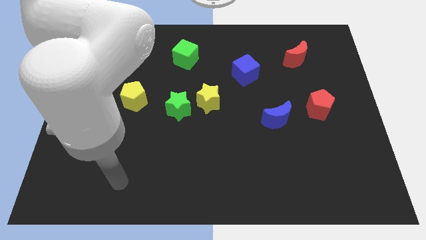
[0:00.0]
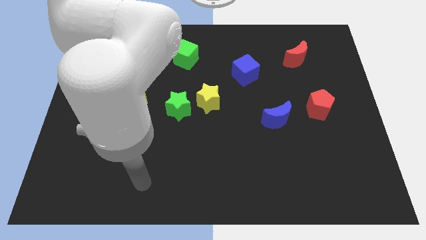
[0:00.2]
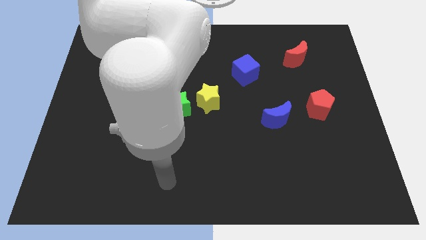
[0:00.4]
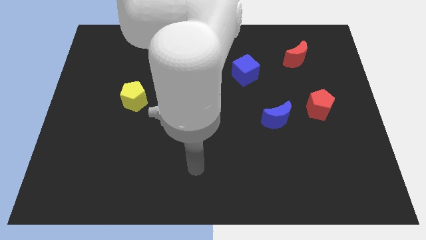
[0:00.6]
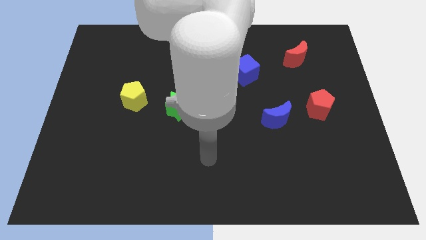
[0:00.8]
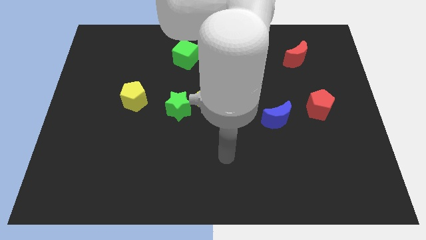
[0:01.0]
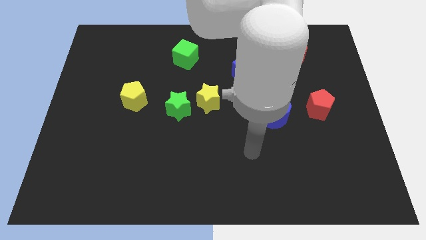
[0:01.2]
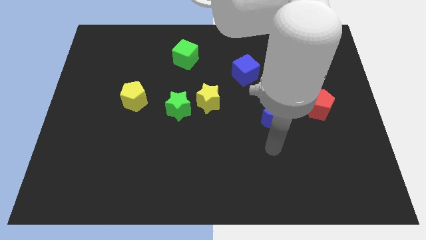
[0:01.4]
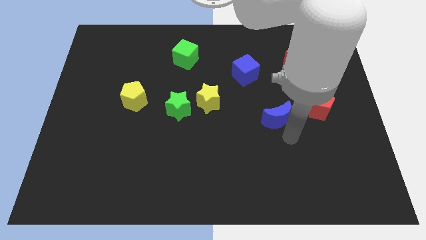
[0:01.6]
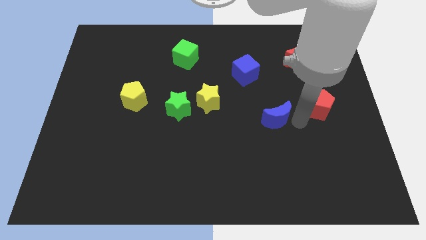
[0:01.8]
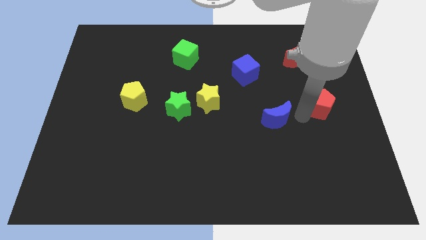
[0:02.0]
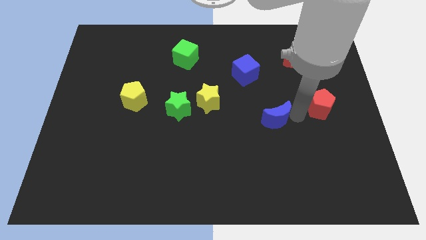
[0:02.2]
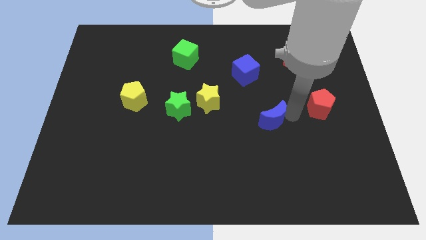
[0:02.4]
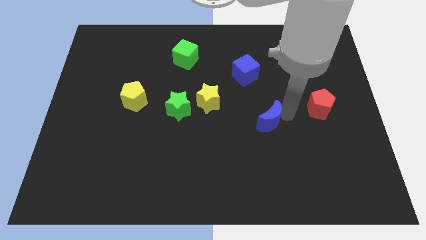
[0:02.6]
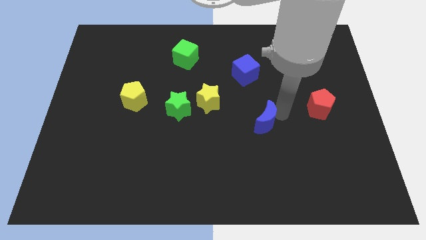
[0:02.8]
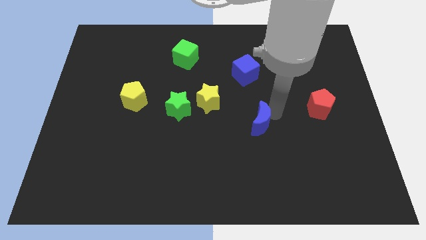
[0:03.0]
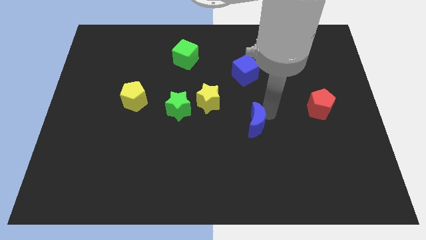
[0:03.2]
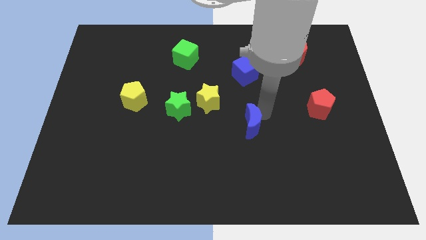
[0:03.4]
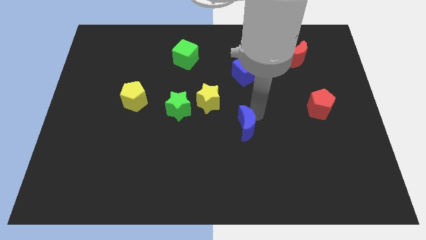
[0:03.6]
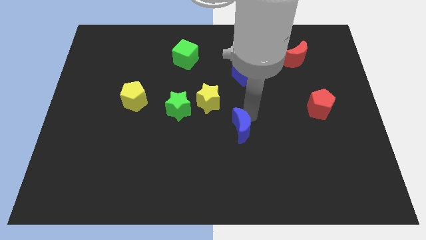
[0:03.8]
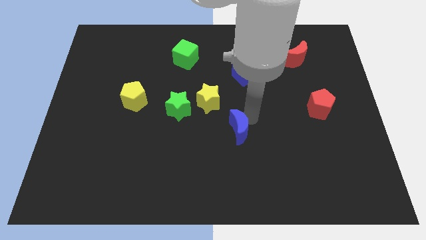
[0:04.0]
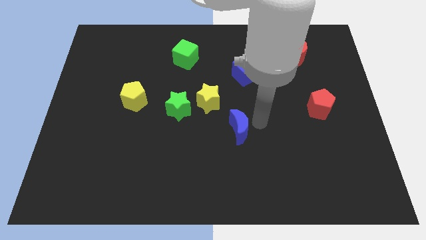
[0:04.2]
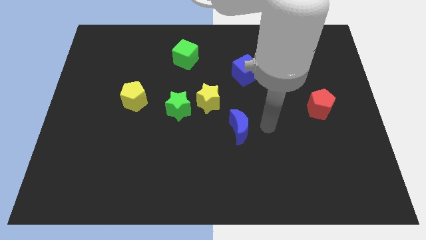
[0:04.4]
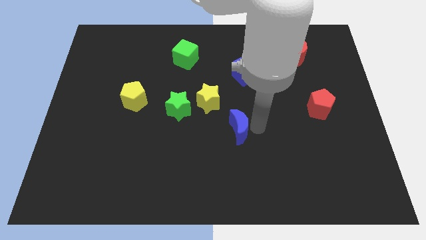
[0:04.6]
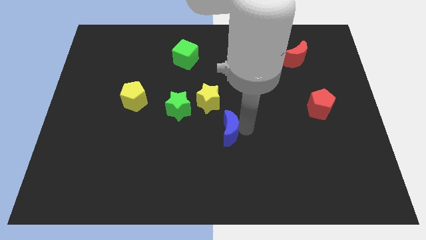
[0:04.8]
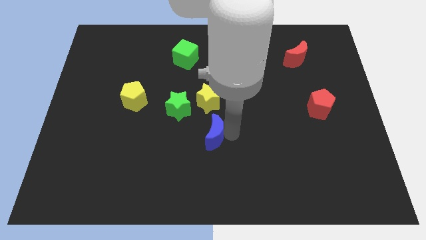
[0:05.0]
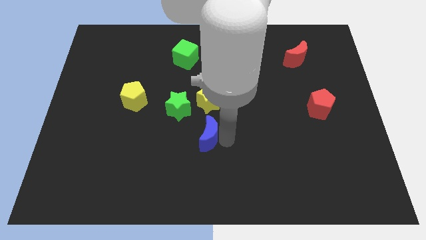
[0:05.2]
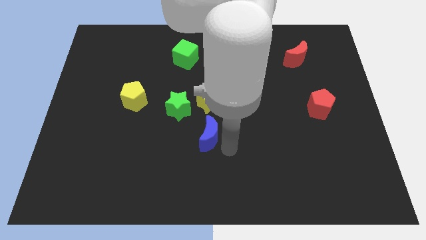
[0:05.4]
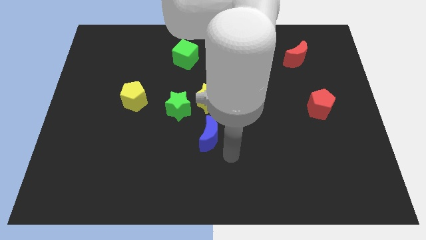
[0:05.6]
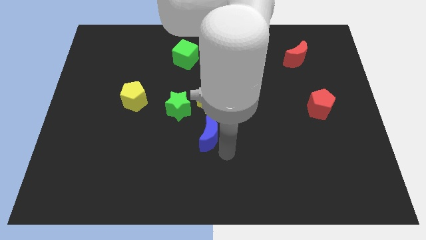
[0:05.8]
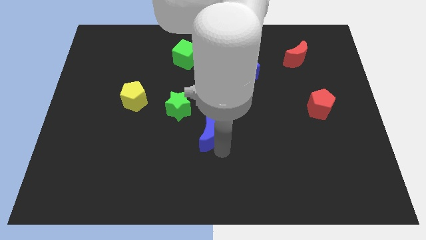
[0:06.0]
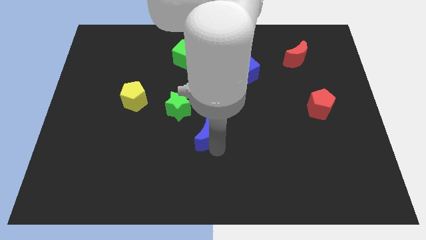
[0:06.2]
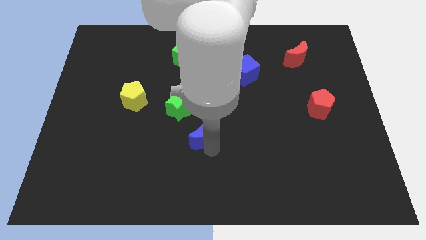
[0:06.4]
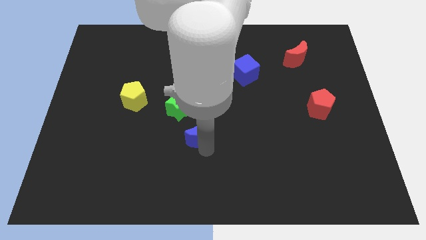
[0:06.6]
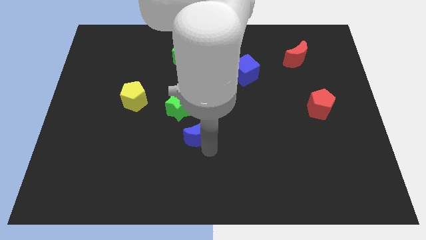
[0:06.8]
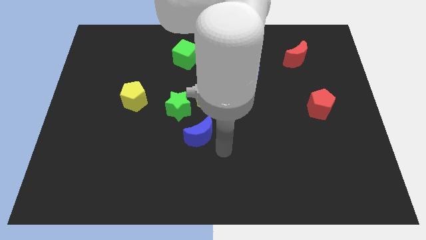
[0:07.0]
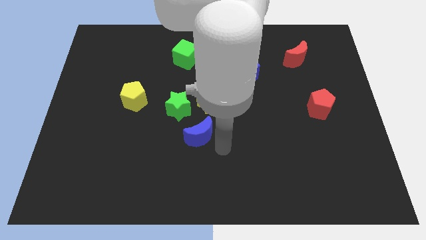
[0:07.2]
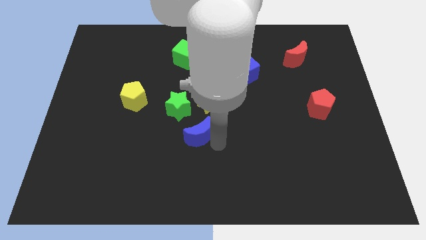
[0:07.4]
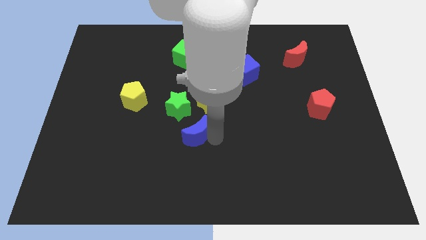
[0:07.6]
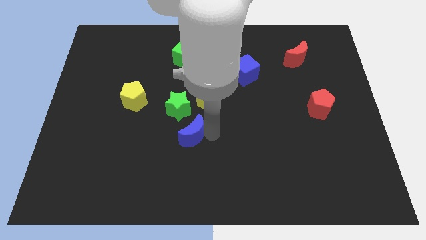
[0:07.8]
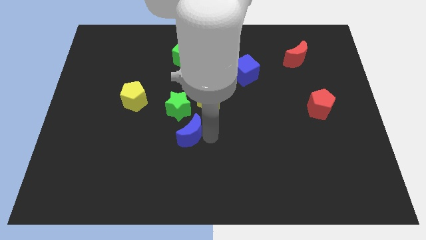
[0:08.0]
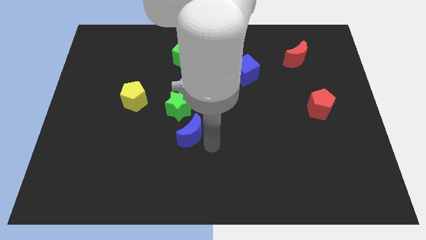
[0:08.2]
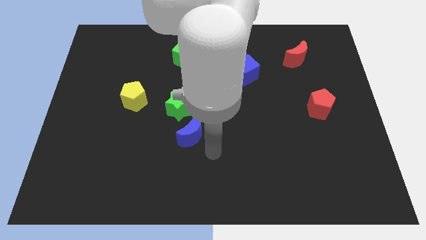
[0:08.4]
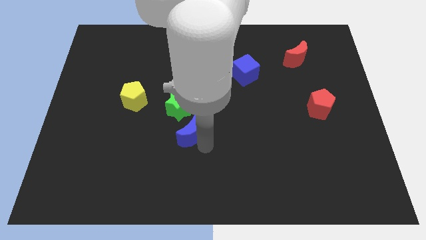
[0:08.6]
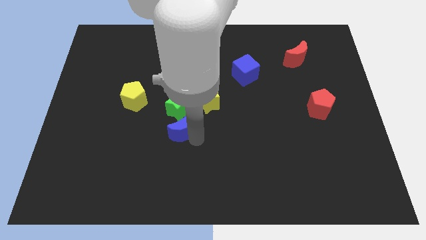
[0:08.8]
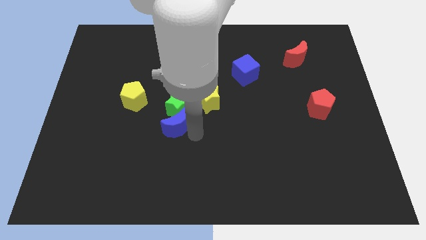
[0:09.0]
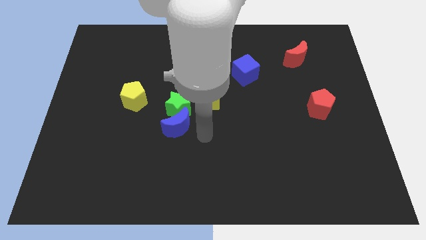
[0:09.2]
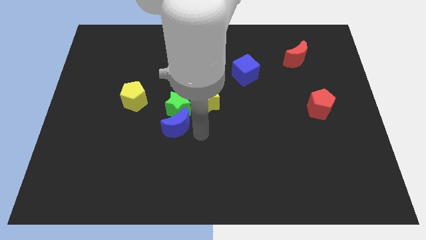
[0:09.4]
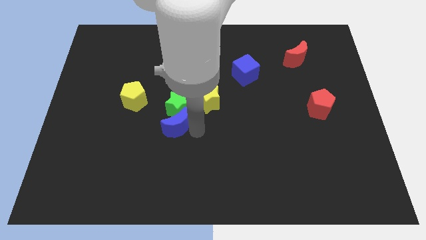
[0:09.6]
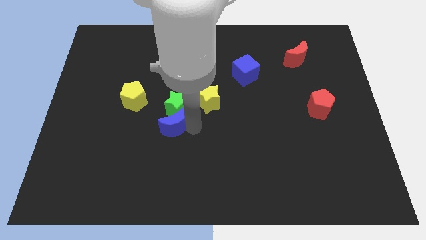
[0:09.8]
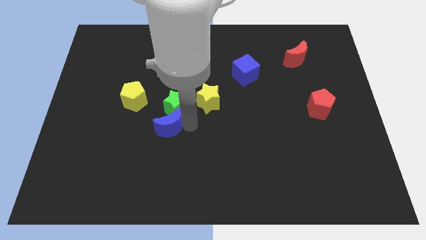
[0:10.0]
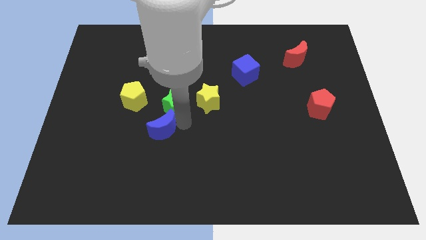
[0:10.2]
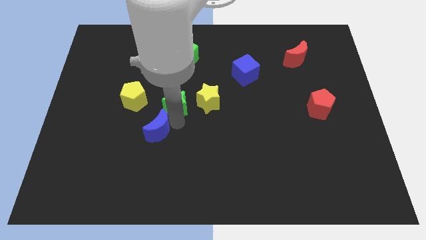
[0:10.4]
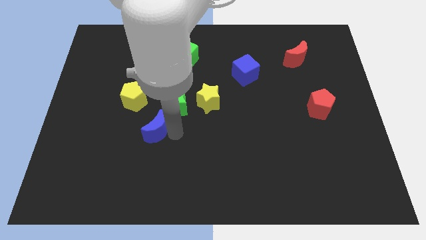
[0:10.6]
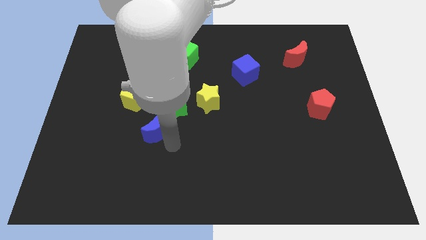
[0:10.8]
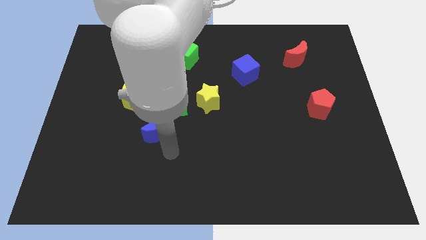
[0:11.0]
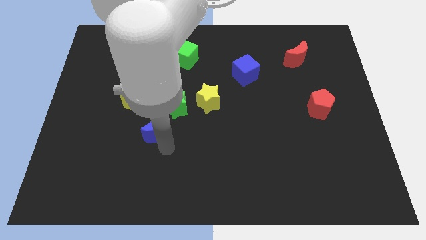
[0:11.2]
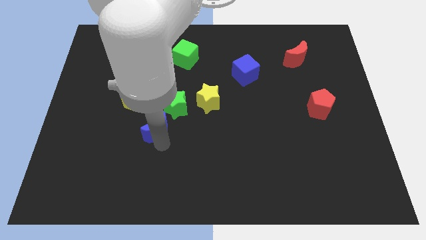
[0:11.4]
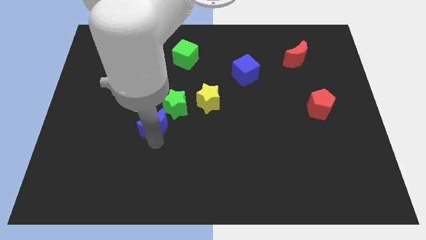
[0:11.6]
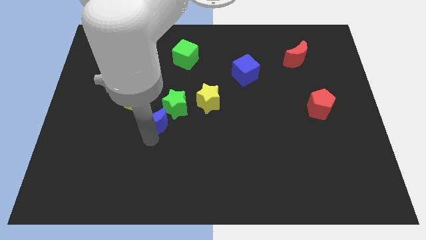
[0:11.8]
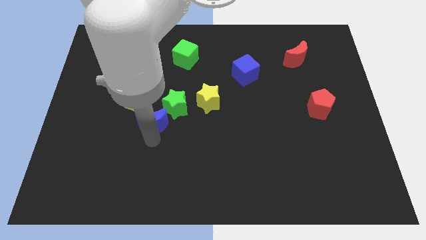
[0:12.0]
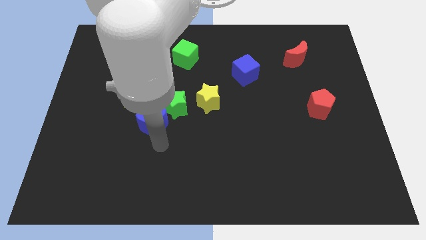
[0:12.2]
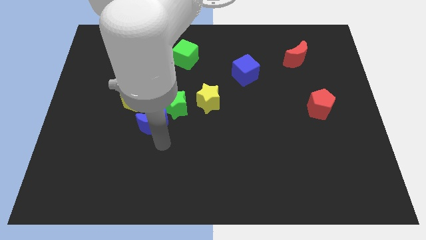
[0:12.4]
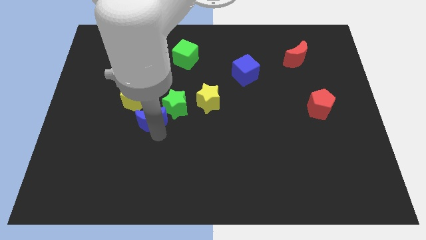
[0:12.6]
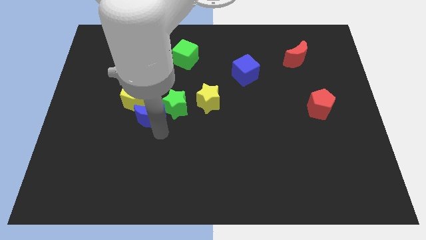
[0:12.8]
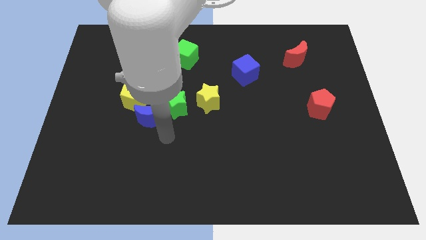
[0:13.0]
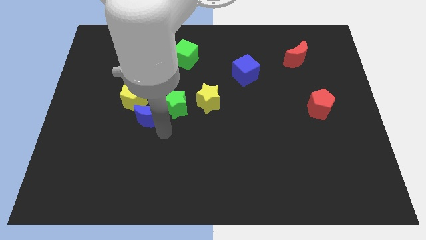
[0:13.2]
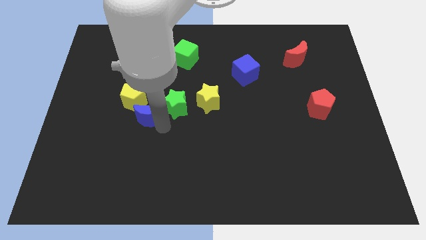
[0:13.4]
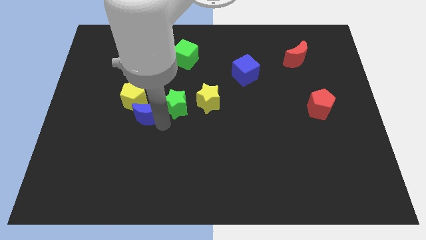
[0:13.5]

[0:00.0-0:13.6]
push the blue moon next to the yellow pentagon

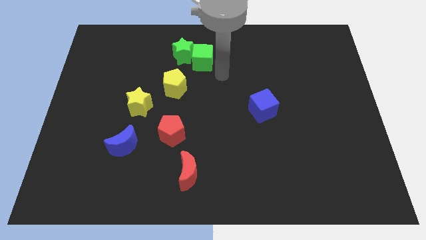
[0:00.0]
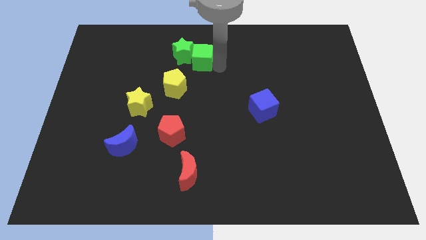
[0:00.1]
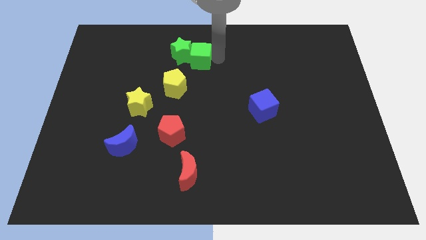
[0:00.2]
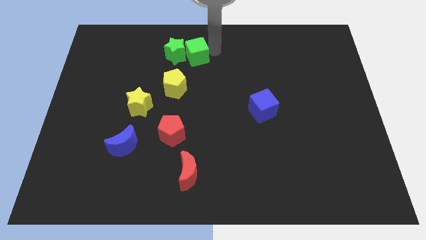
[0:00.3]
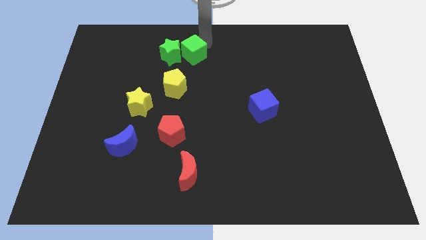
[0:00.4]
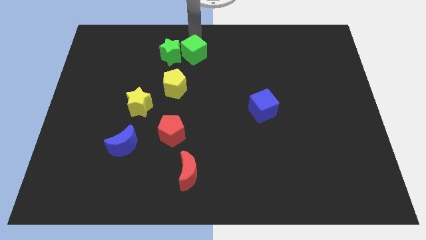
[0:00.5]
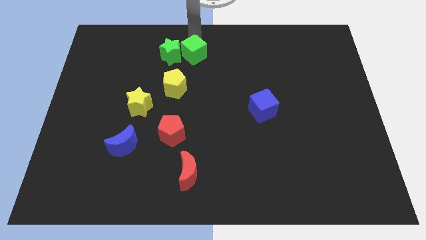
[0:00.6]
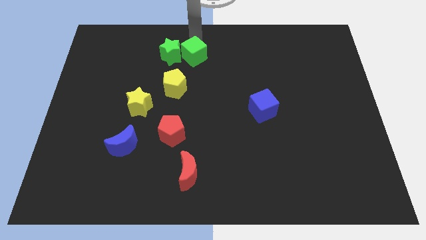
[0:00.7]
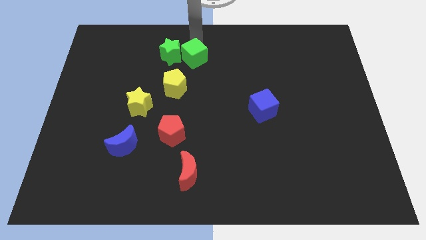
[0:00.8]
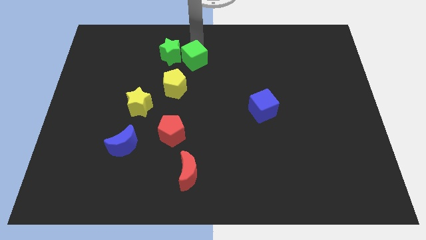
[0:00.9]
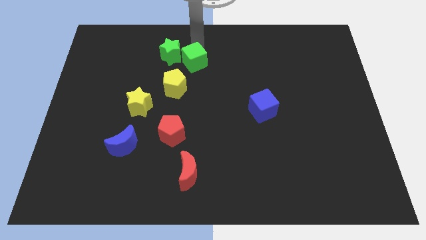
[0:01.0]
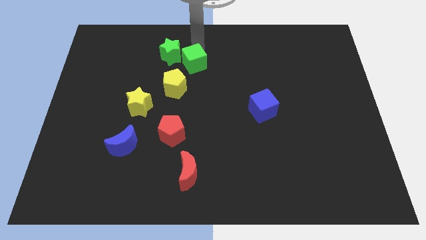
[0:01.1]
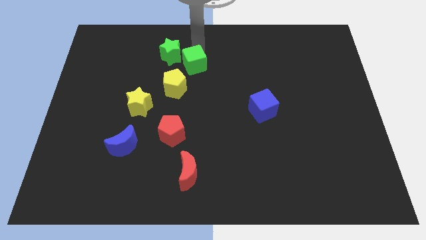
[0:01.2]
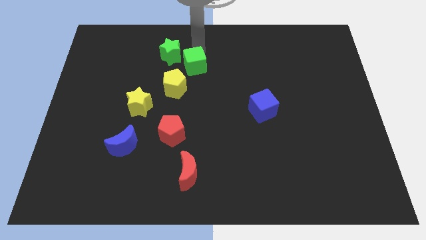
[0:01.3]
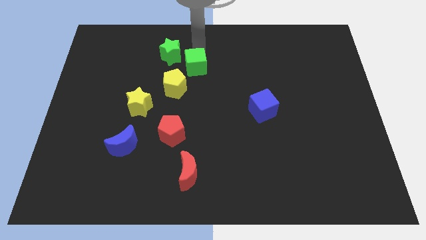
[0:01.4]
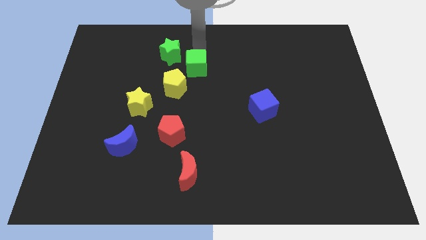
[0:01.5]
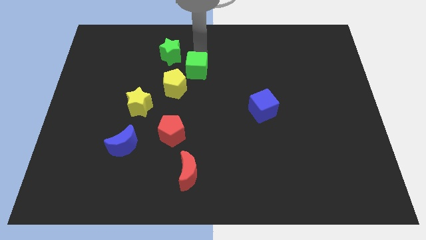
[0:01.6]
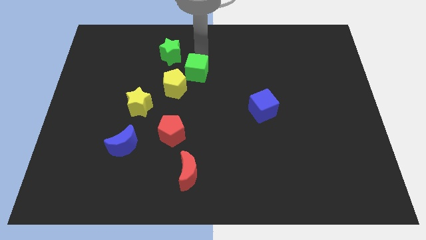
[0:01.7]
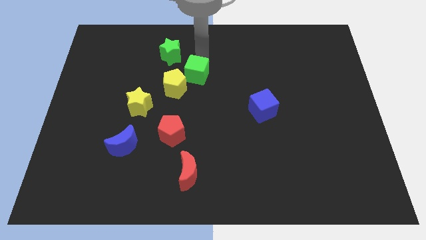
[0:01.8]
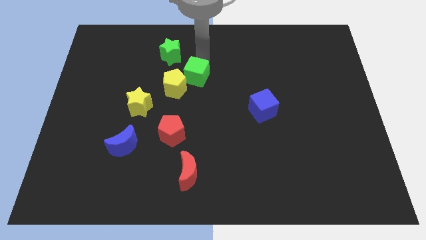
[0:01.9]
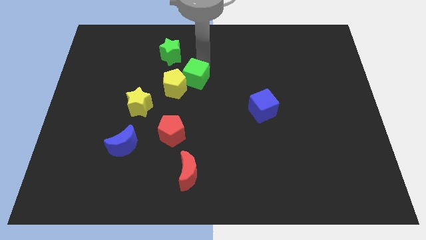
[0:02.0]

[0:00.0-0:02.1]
push the green cube to the yellow pentagon
